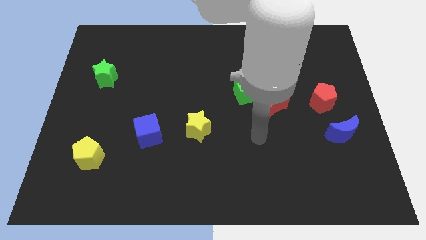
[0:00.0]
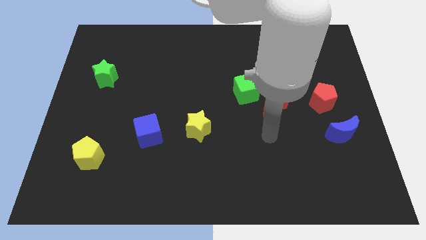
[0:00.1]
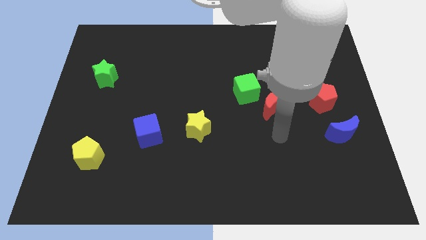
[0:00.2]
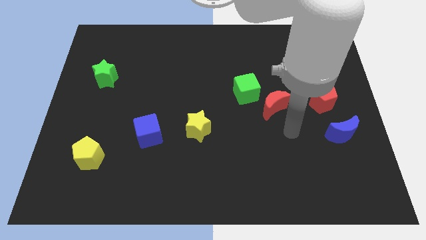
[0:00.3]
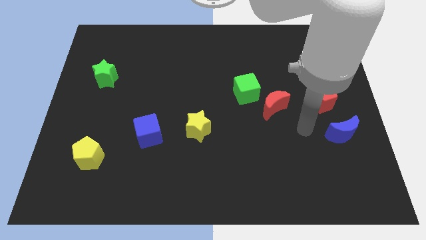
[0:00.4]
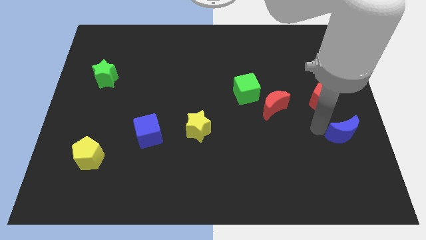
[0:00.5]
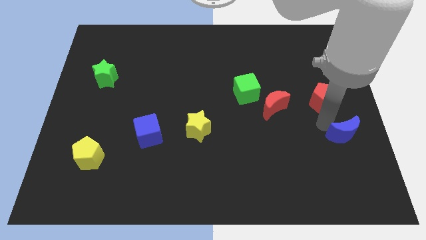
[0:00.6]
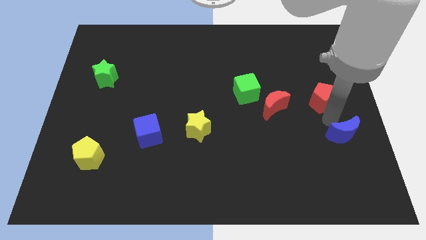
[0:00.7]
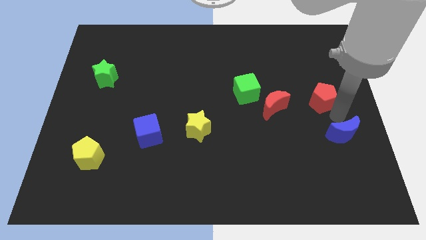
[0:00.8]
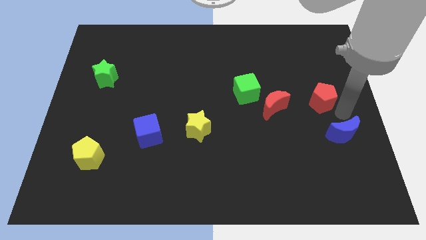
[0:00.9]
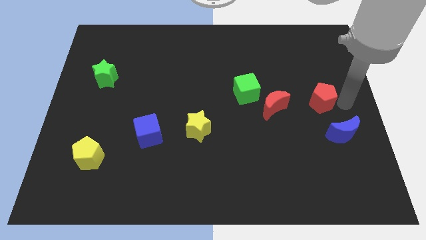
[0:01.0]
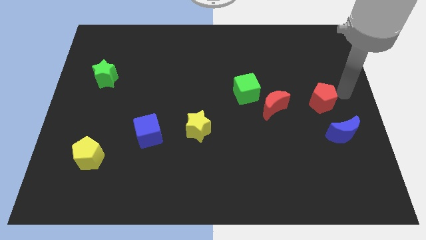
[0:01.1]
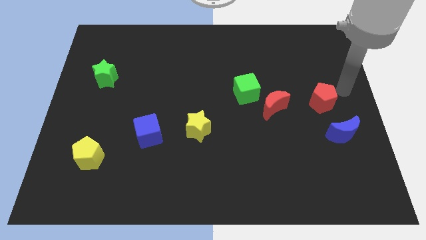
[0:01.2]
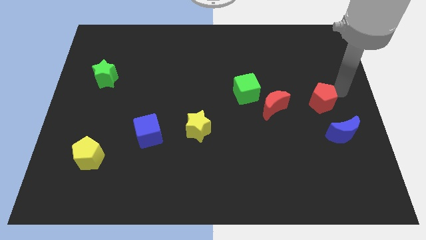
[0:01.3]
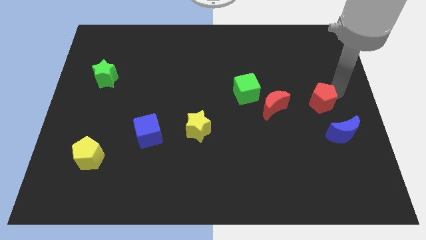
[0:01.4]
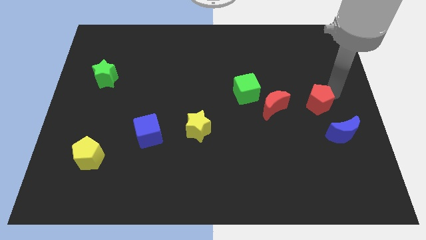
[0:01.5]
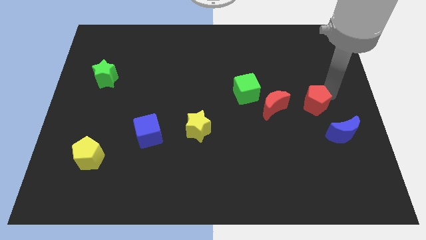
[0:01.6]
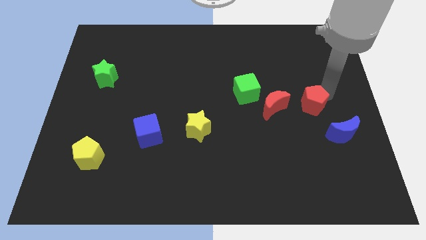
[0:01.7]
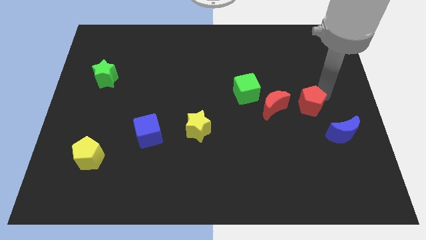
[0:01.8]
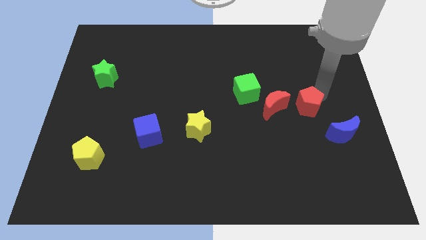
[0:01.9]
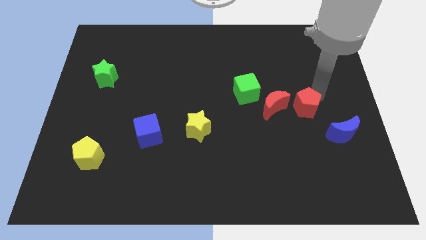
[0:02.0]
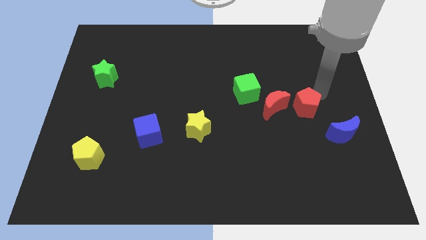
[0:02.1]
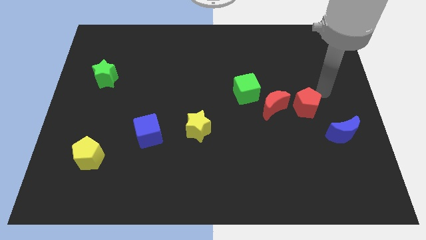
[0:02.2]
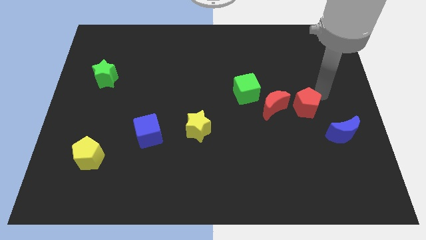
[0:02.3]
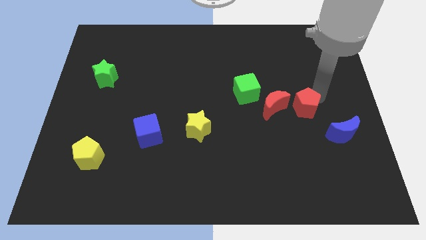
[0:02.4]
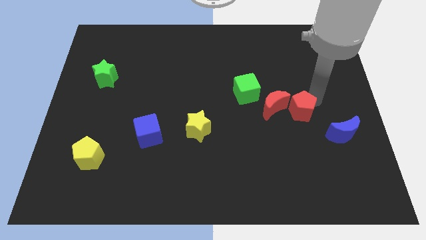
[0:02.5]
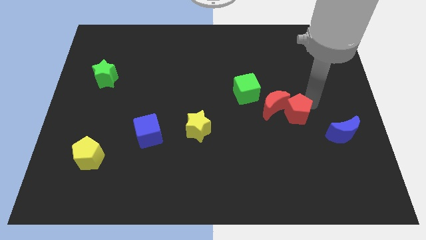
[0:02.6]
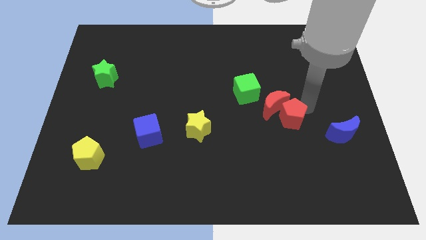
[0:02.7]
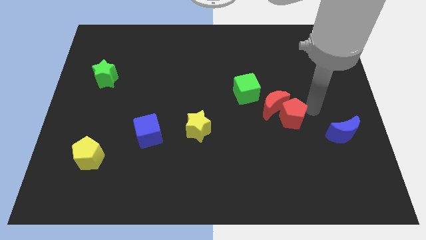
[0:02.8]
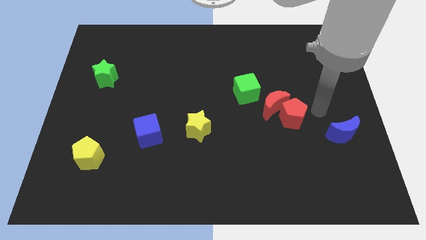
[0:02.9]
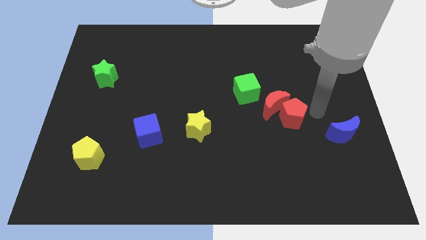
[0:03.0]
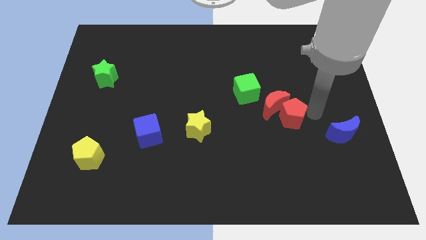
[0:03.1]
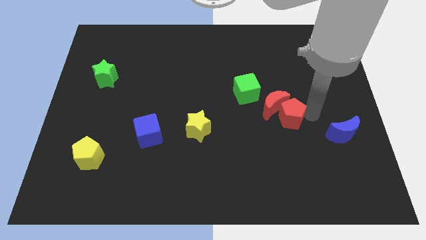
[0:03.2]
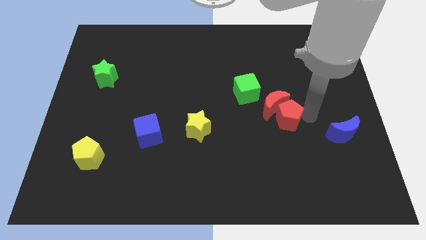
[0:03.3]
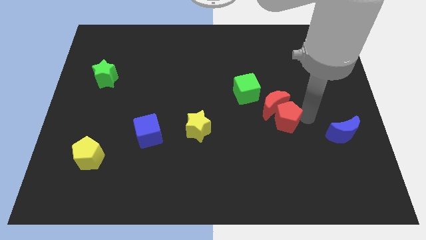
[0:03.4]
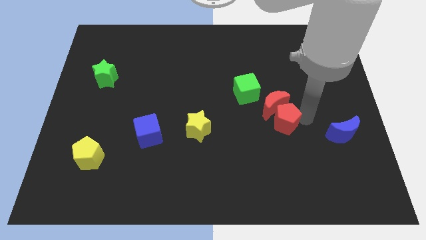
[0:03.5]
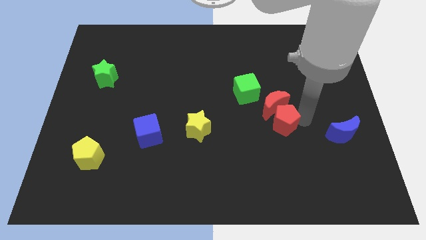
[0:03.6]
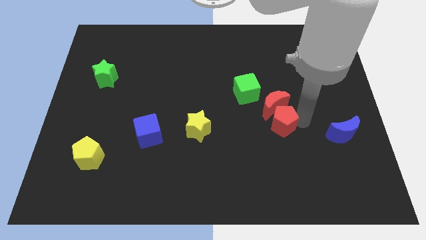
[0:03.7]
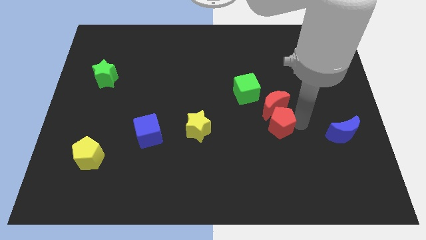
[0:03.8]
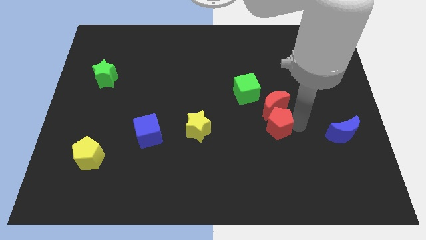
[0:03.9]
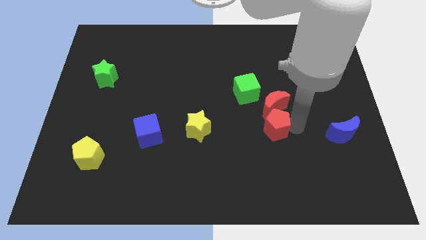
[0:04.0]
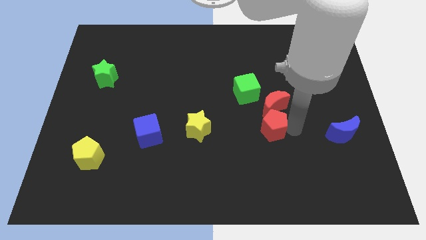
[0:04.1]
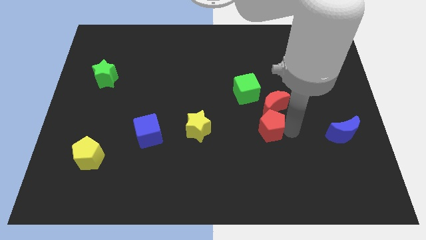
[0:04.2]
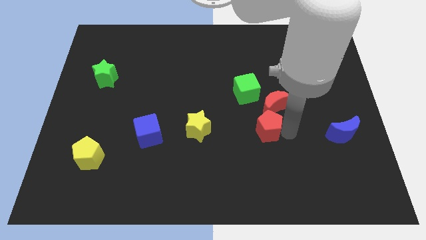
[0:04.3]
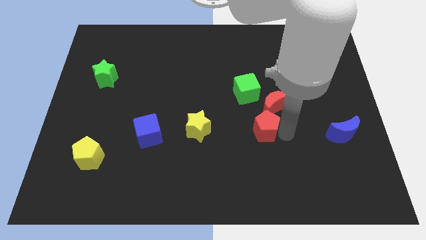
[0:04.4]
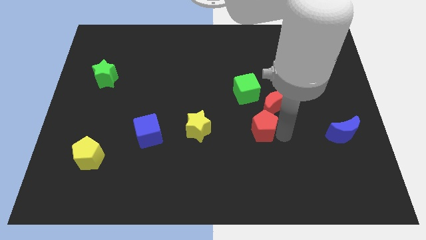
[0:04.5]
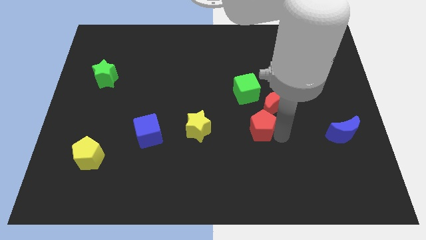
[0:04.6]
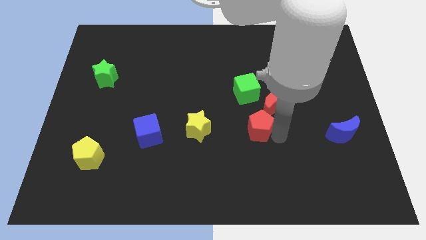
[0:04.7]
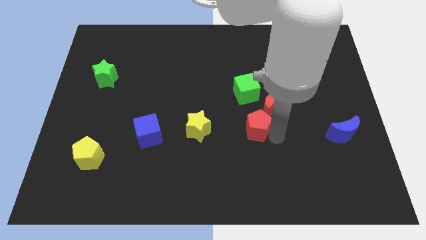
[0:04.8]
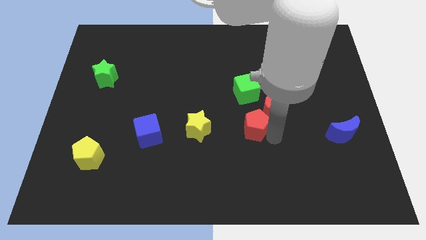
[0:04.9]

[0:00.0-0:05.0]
slide the red pentagon to the middle of the board

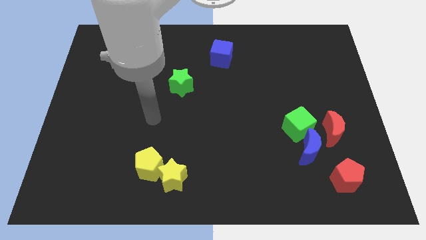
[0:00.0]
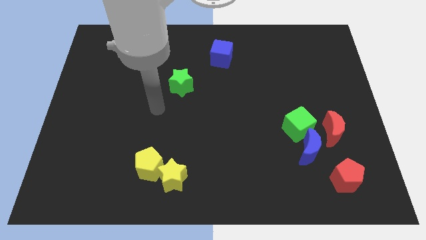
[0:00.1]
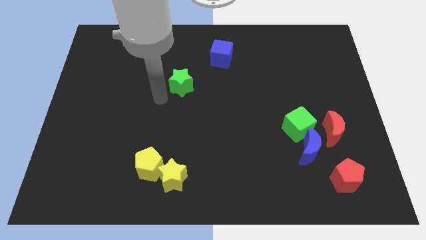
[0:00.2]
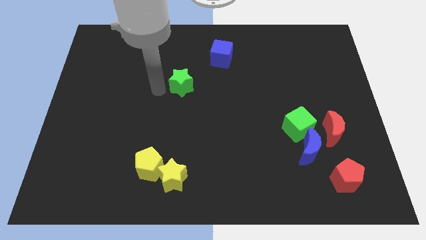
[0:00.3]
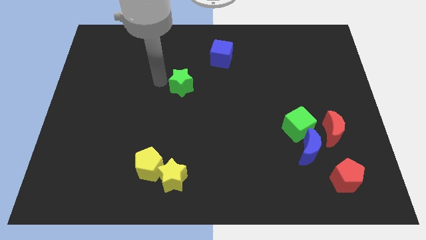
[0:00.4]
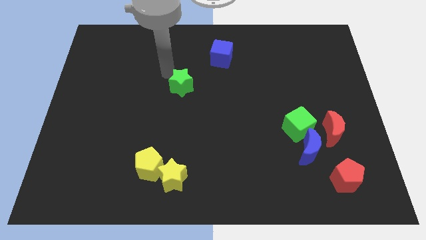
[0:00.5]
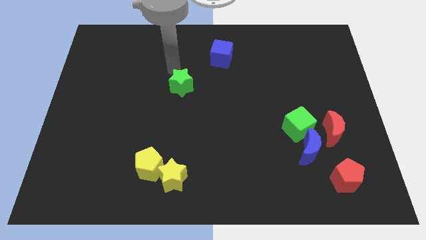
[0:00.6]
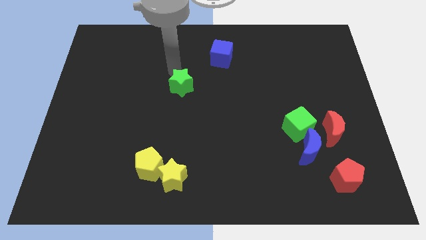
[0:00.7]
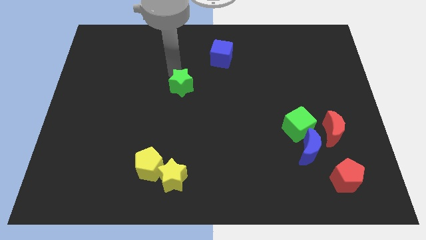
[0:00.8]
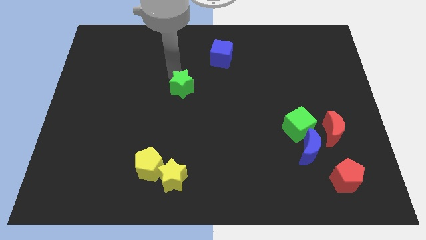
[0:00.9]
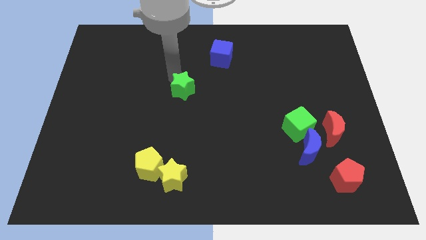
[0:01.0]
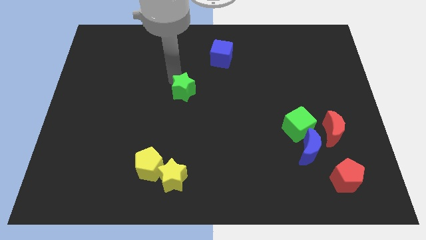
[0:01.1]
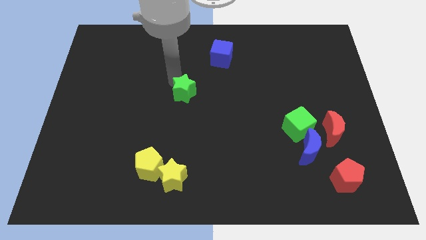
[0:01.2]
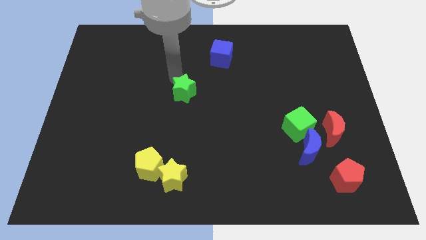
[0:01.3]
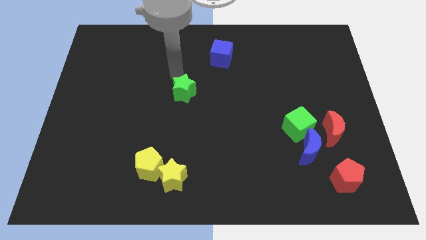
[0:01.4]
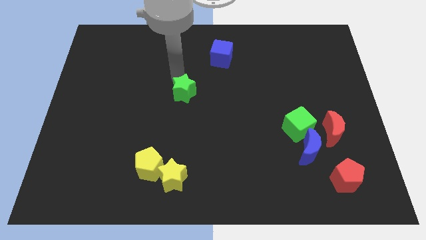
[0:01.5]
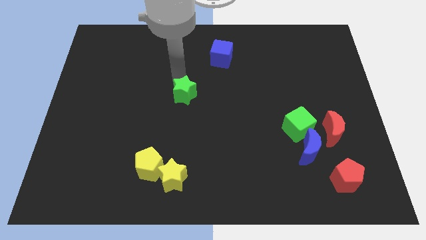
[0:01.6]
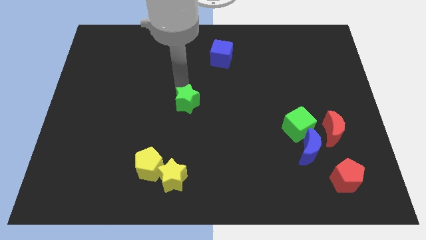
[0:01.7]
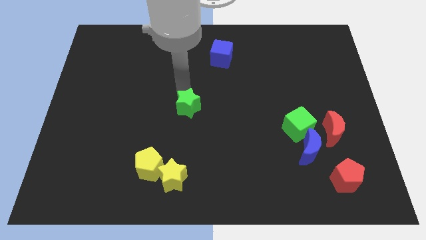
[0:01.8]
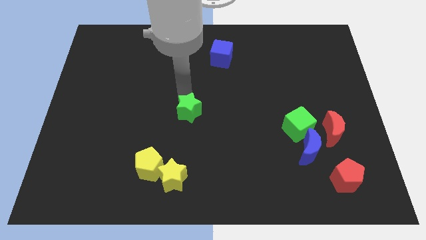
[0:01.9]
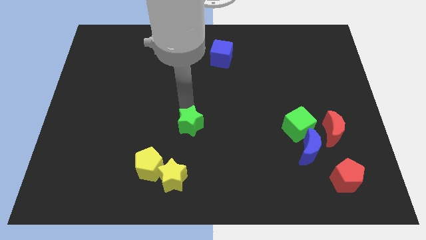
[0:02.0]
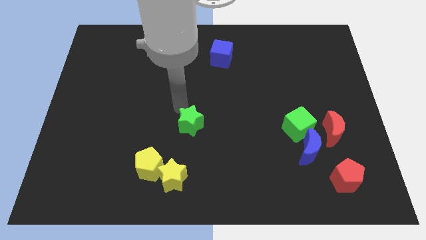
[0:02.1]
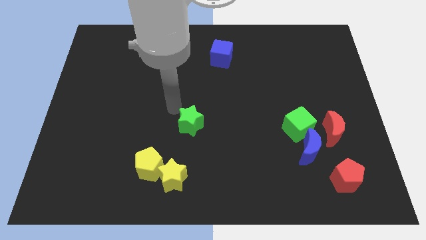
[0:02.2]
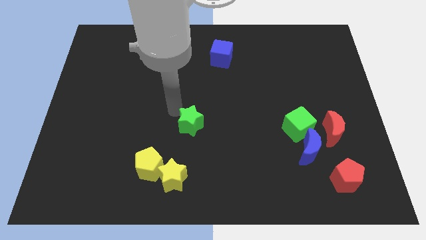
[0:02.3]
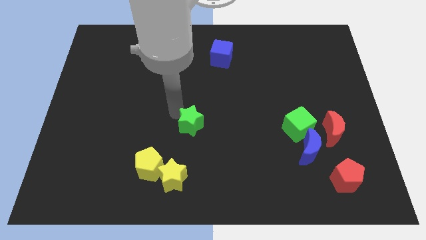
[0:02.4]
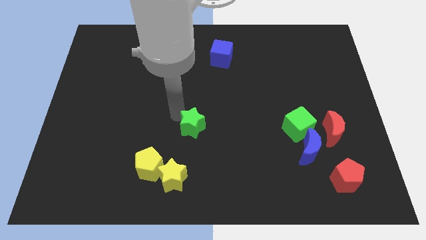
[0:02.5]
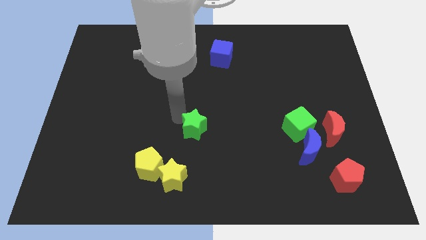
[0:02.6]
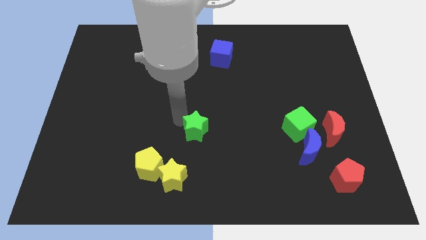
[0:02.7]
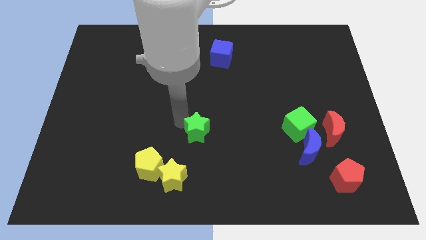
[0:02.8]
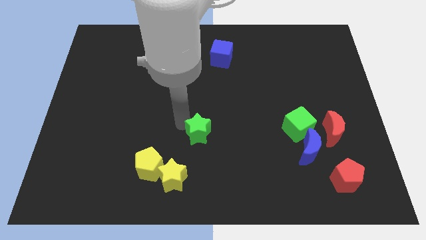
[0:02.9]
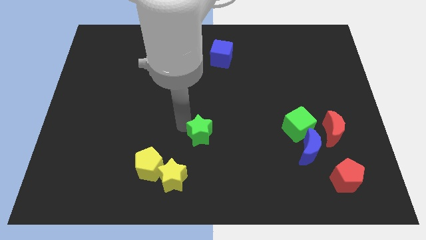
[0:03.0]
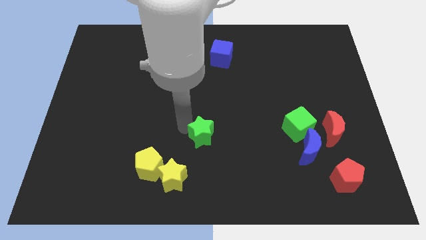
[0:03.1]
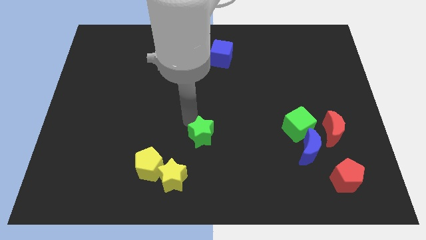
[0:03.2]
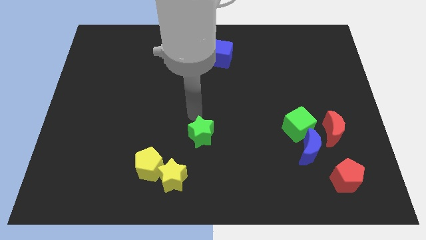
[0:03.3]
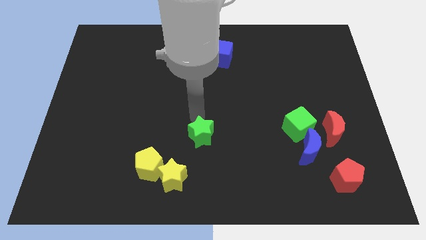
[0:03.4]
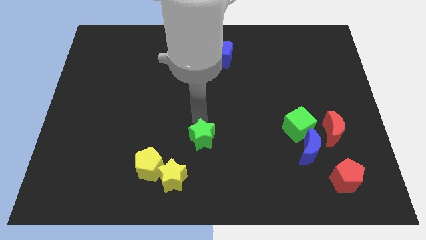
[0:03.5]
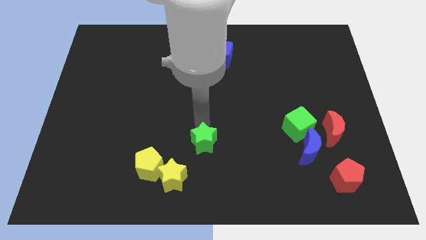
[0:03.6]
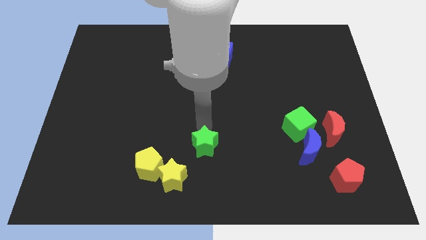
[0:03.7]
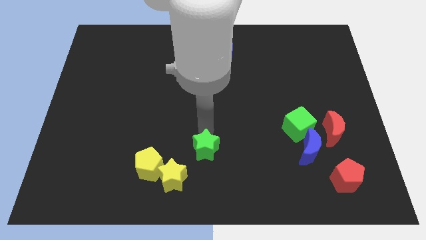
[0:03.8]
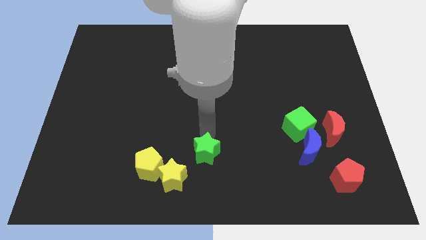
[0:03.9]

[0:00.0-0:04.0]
slide the green star to the bottom side
